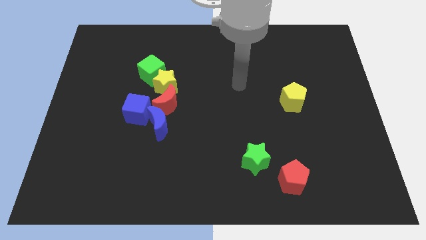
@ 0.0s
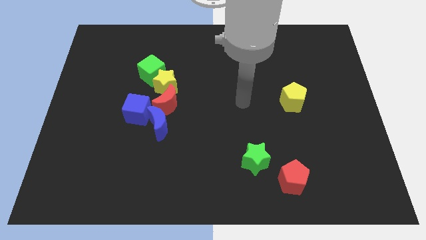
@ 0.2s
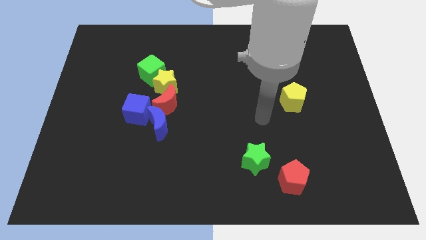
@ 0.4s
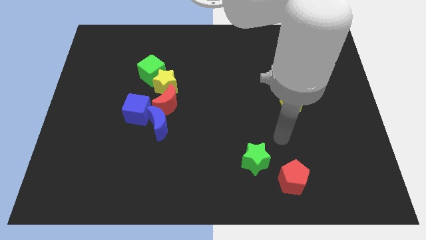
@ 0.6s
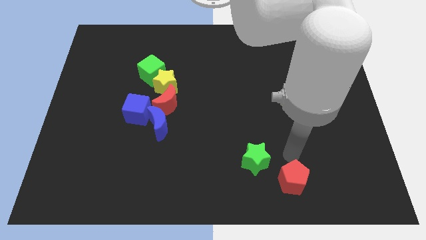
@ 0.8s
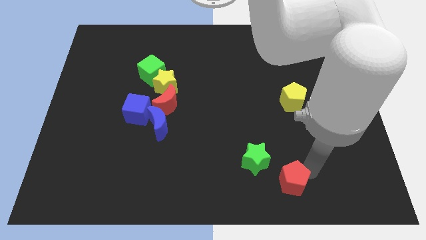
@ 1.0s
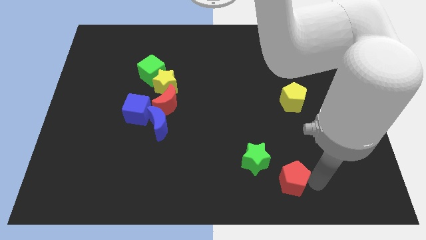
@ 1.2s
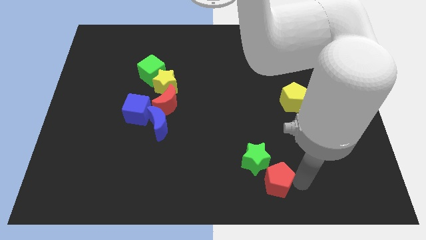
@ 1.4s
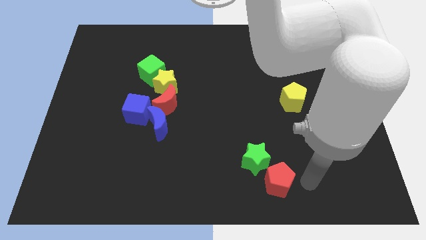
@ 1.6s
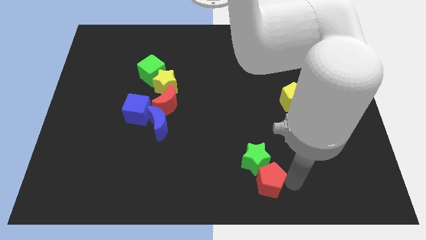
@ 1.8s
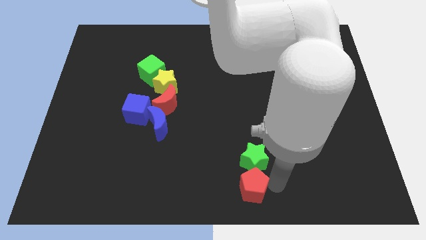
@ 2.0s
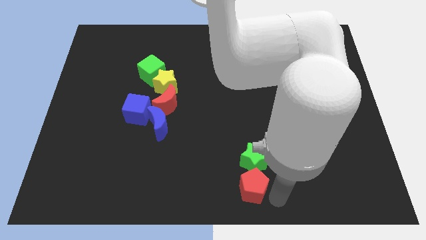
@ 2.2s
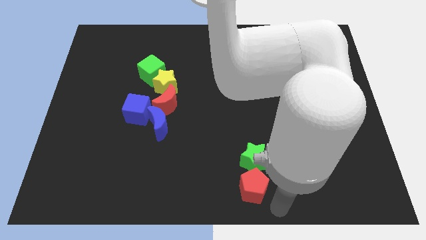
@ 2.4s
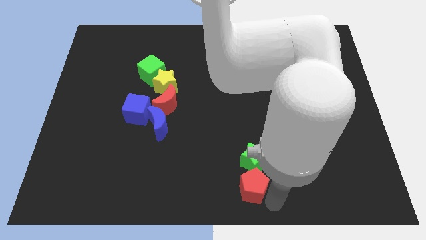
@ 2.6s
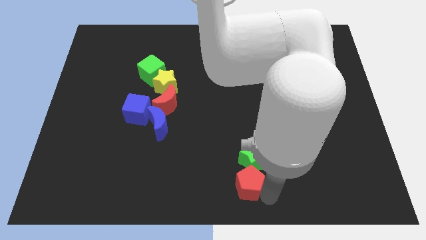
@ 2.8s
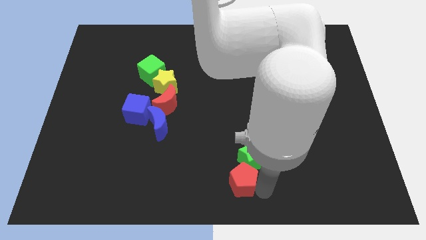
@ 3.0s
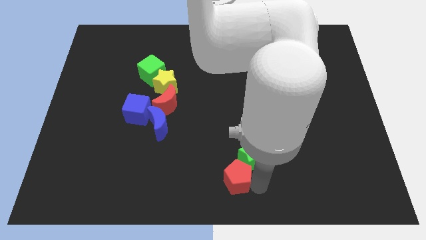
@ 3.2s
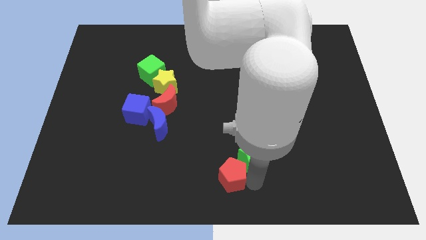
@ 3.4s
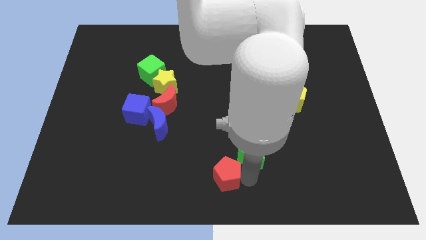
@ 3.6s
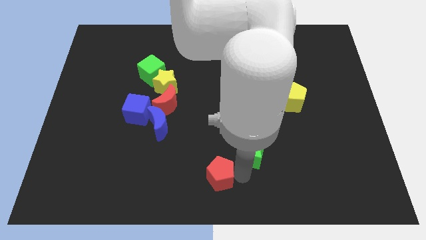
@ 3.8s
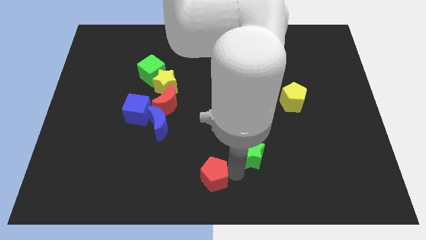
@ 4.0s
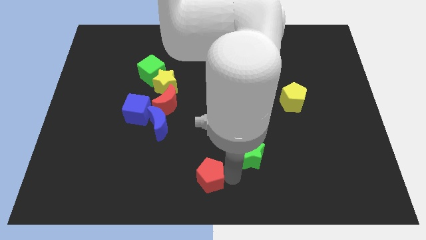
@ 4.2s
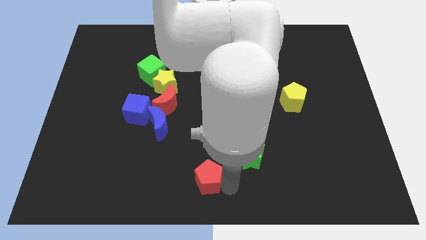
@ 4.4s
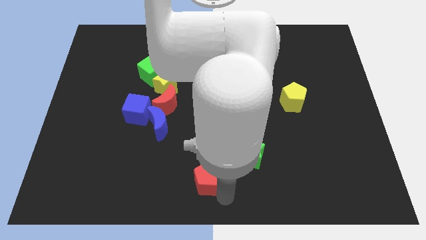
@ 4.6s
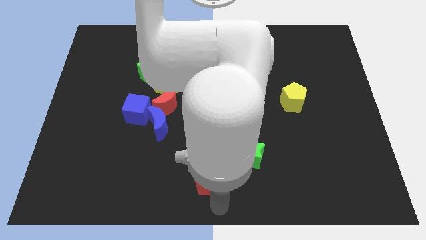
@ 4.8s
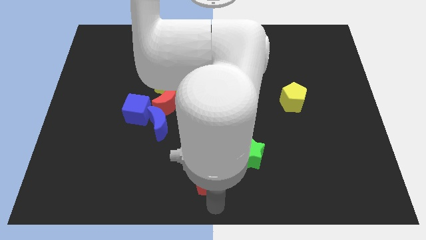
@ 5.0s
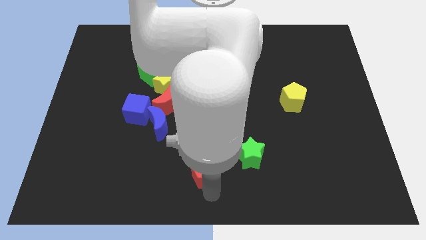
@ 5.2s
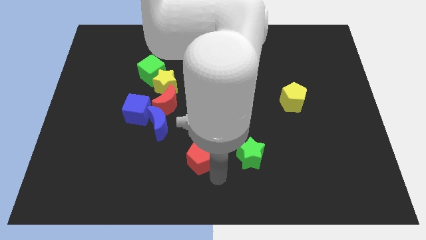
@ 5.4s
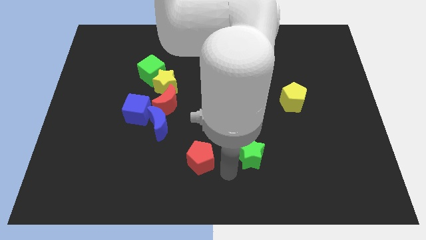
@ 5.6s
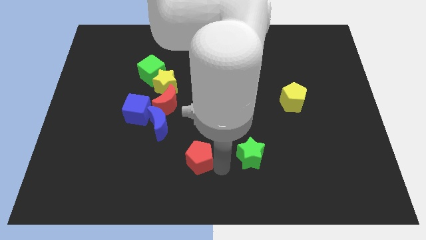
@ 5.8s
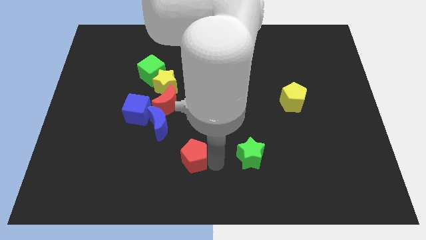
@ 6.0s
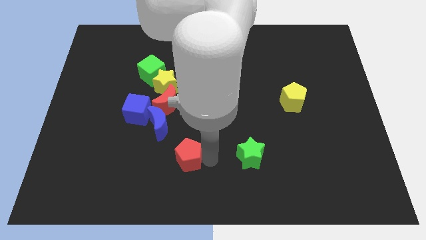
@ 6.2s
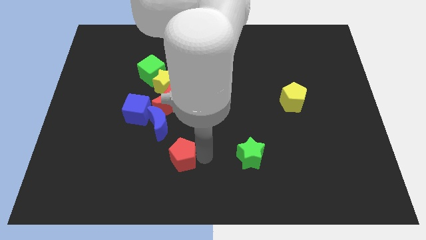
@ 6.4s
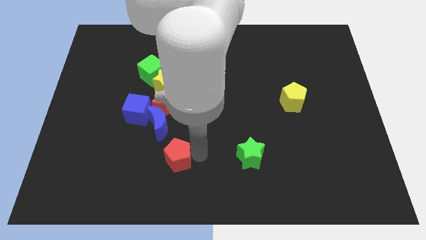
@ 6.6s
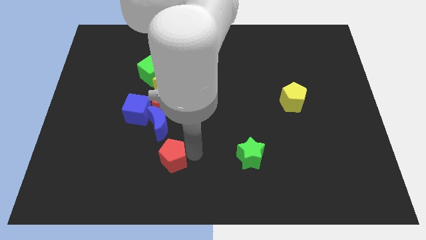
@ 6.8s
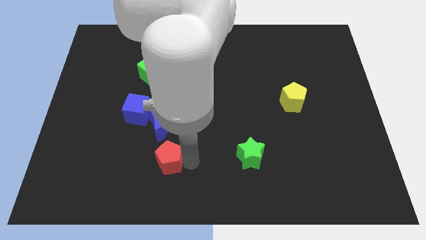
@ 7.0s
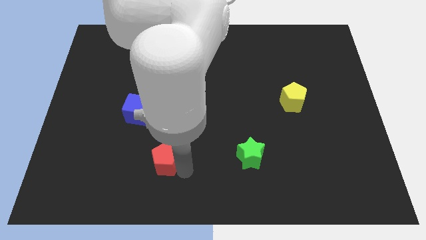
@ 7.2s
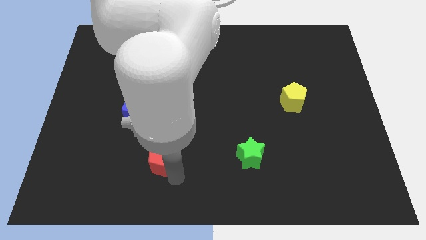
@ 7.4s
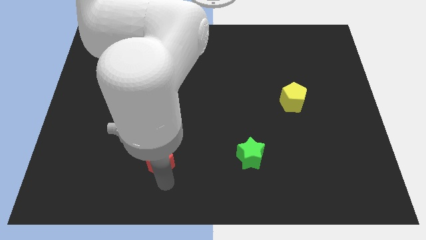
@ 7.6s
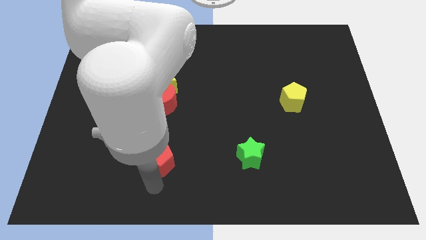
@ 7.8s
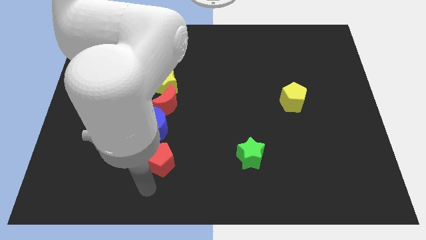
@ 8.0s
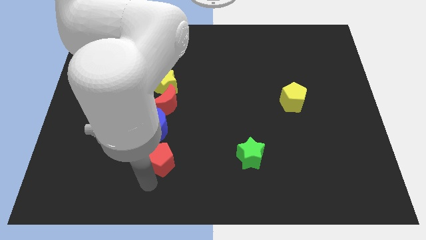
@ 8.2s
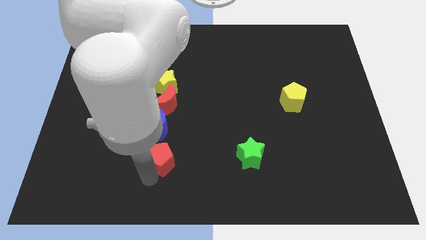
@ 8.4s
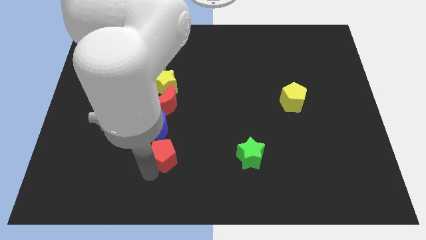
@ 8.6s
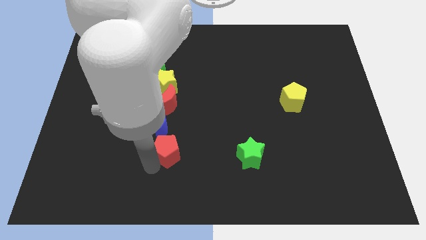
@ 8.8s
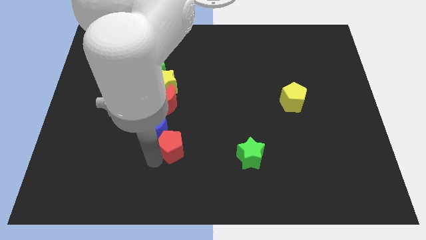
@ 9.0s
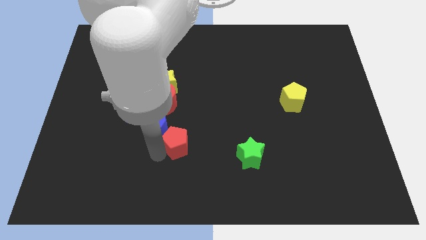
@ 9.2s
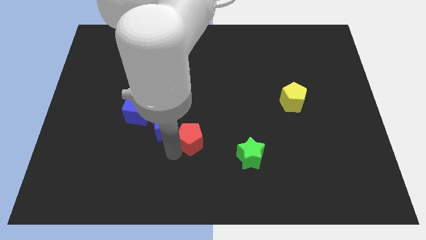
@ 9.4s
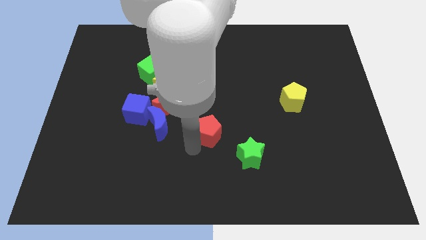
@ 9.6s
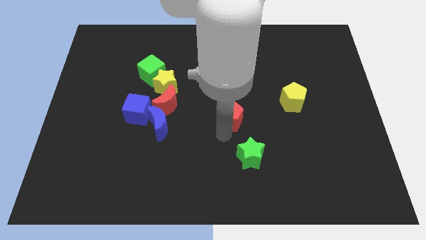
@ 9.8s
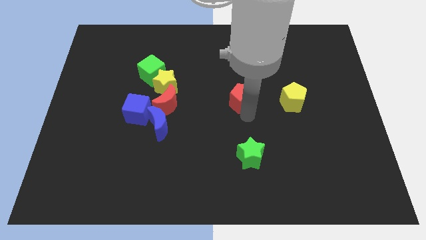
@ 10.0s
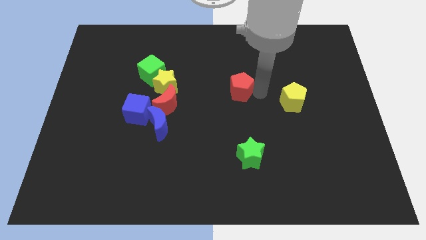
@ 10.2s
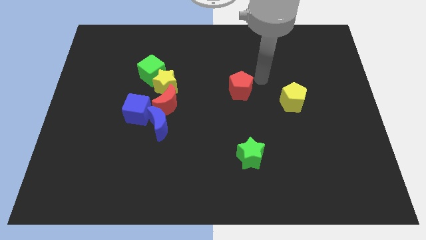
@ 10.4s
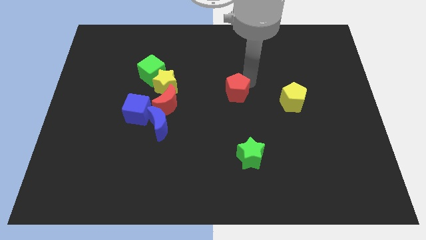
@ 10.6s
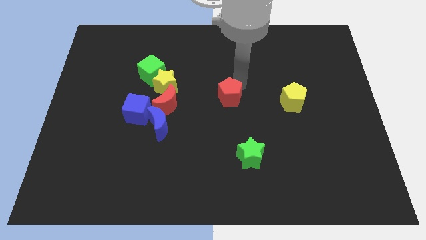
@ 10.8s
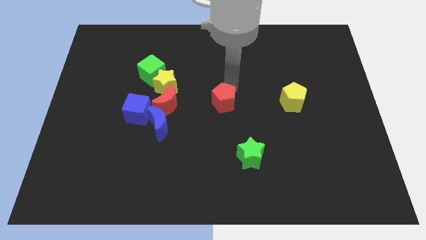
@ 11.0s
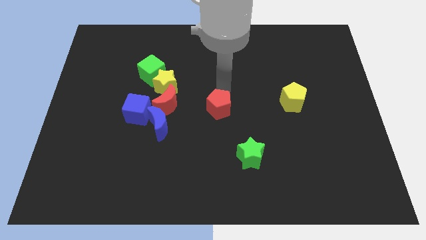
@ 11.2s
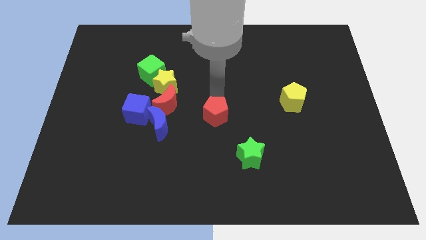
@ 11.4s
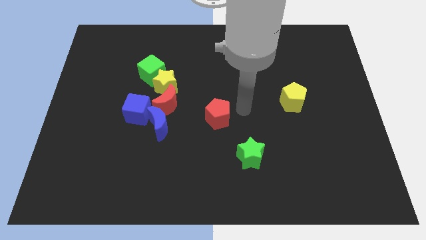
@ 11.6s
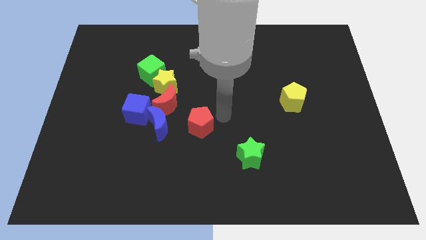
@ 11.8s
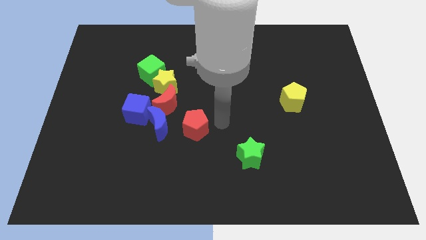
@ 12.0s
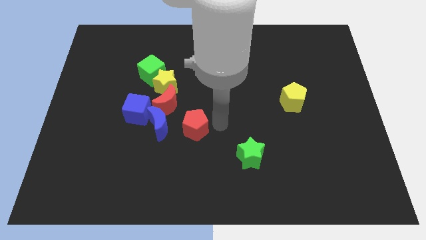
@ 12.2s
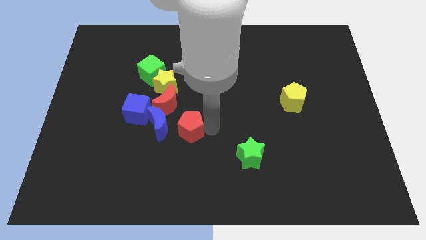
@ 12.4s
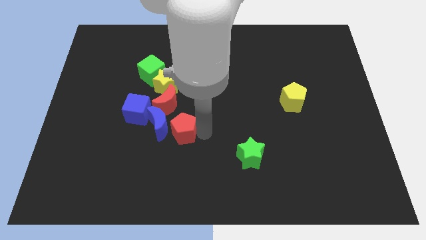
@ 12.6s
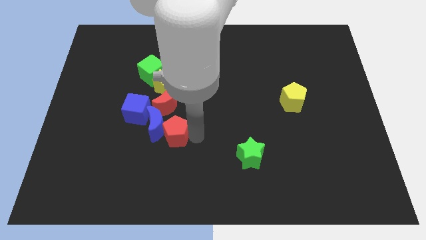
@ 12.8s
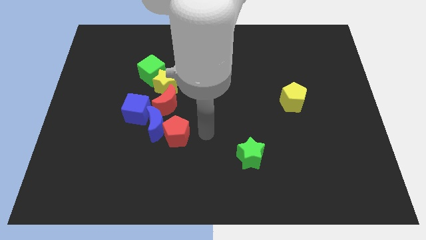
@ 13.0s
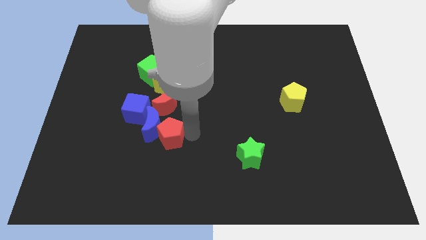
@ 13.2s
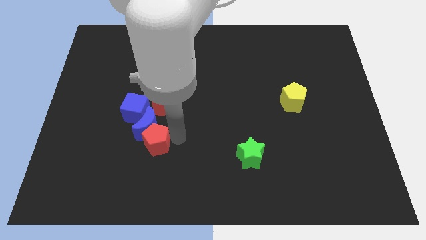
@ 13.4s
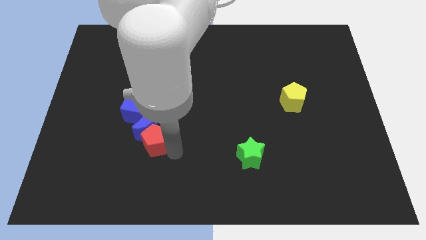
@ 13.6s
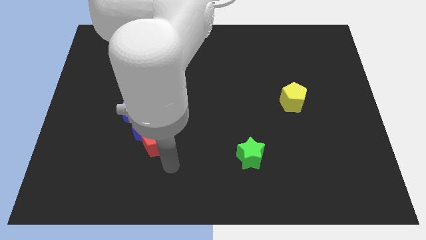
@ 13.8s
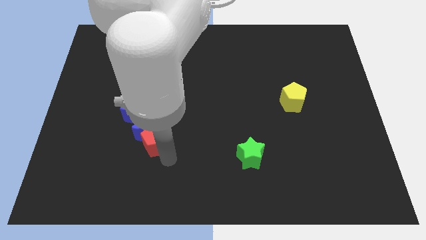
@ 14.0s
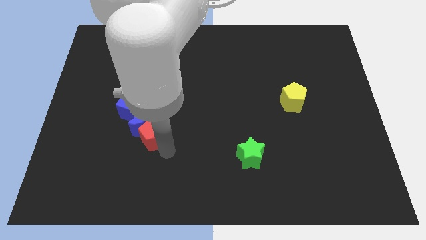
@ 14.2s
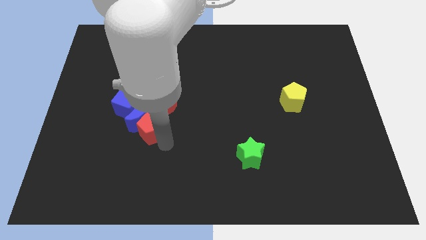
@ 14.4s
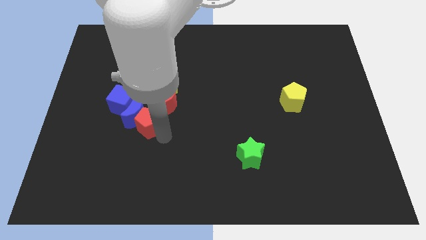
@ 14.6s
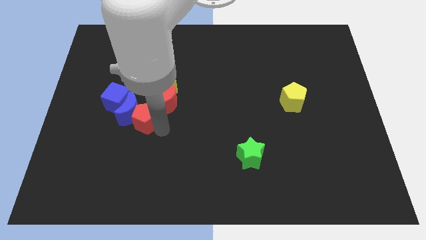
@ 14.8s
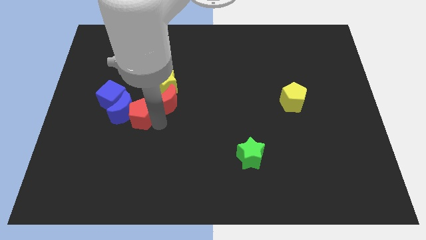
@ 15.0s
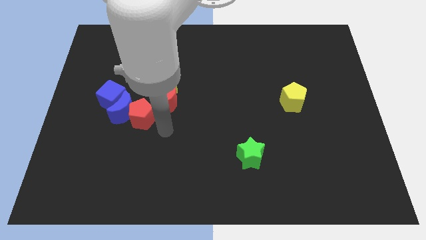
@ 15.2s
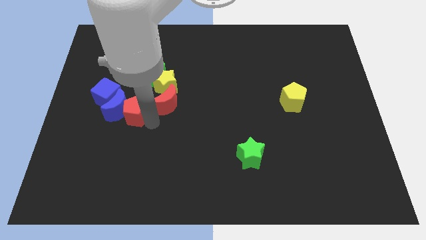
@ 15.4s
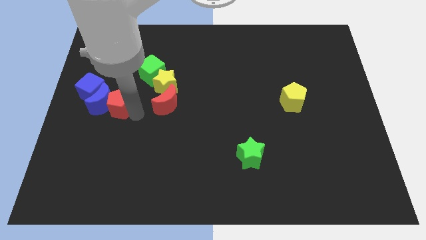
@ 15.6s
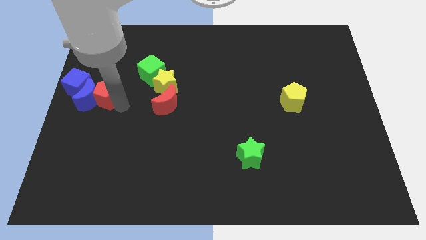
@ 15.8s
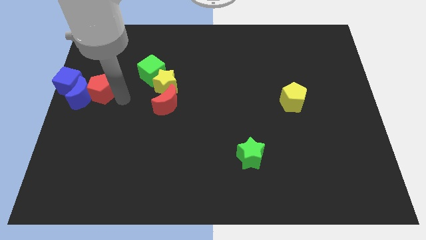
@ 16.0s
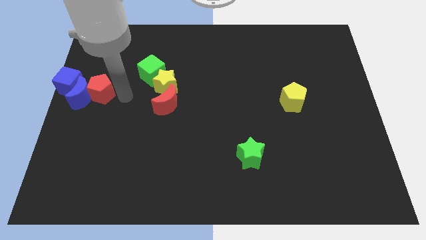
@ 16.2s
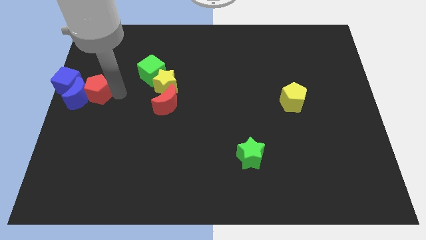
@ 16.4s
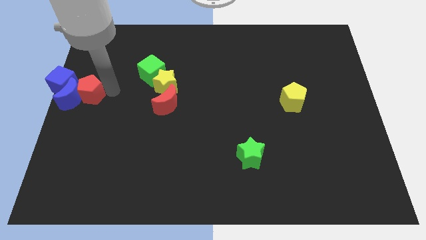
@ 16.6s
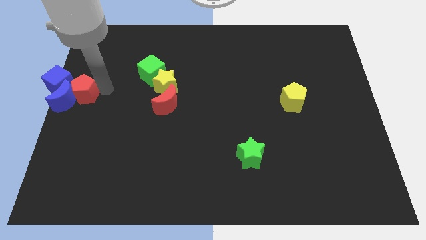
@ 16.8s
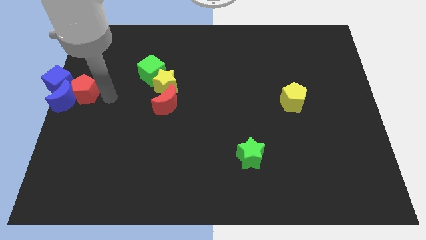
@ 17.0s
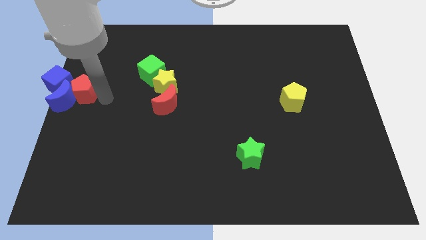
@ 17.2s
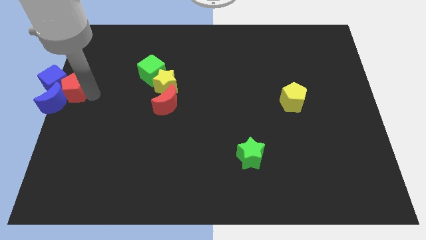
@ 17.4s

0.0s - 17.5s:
put the red pentagon close to the blue cube
